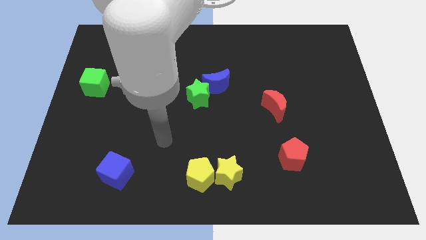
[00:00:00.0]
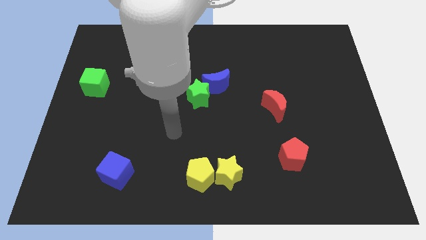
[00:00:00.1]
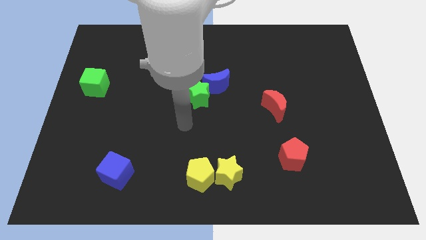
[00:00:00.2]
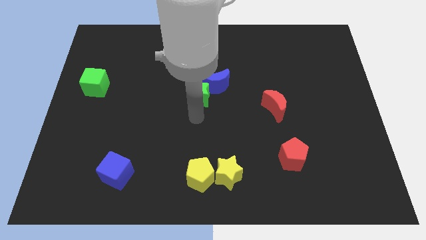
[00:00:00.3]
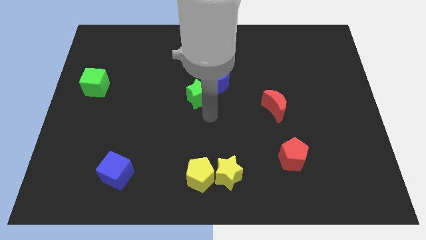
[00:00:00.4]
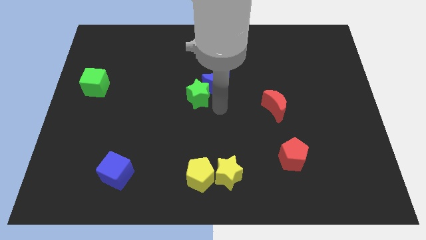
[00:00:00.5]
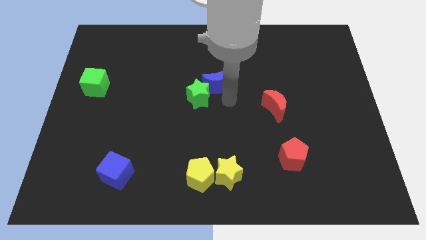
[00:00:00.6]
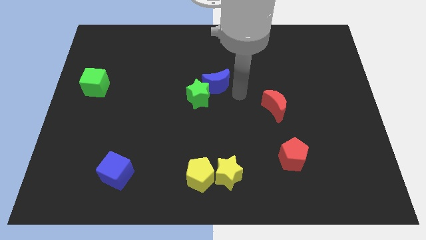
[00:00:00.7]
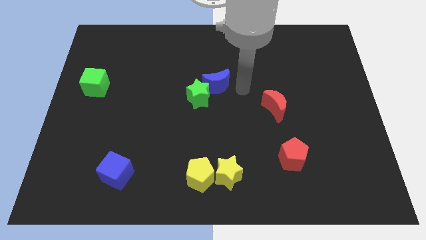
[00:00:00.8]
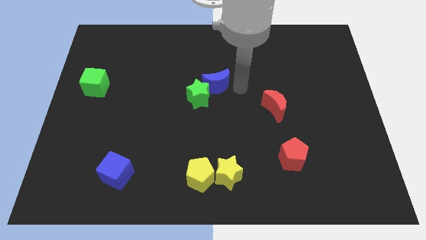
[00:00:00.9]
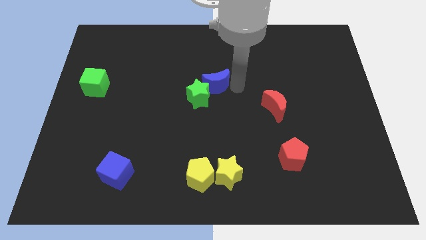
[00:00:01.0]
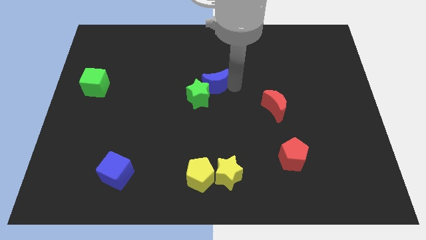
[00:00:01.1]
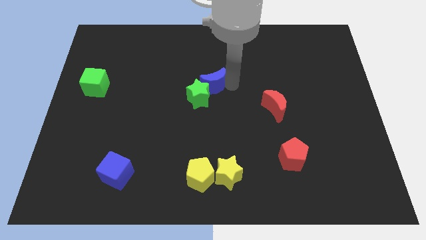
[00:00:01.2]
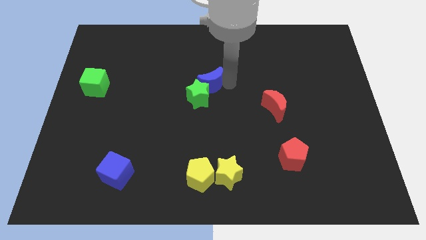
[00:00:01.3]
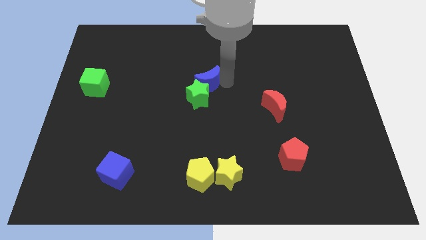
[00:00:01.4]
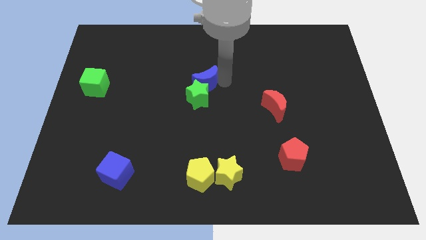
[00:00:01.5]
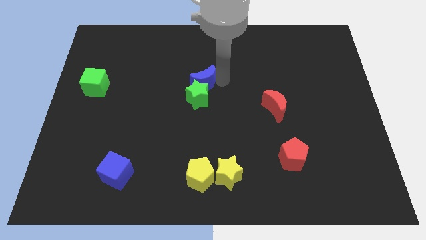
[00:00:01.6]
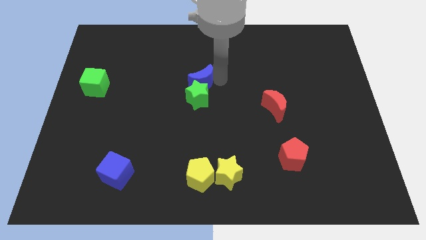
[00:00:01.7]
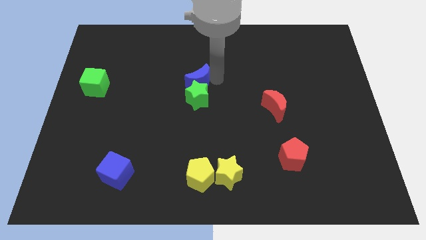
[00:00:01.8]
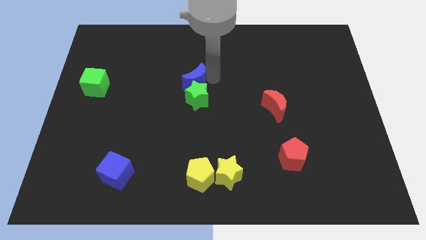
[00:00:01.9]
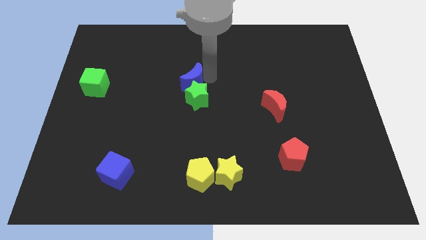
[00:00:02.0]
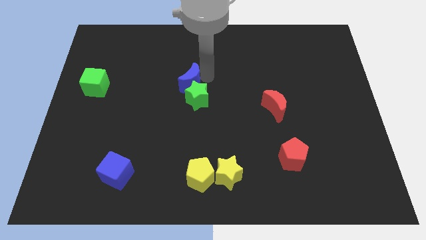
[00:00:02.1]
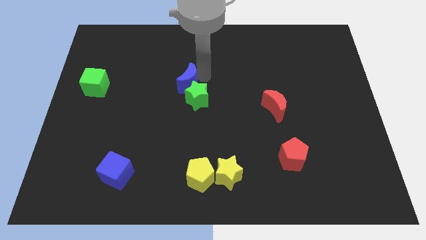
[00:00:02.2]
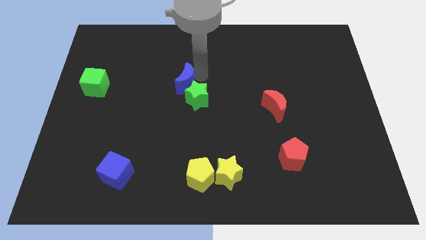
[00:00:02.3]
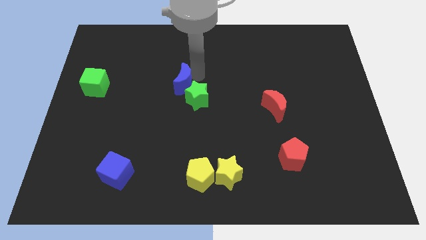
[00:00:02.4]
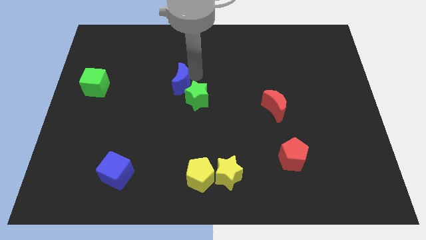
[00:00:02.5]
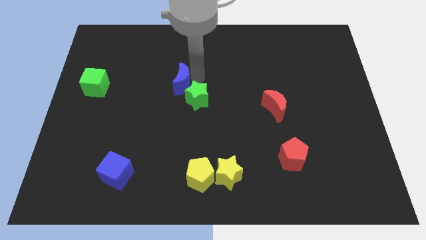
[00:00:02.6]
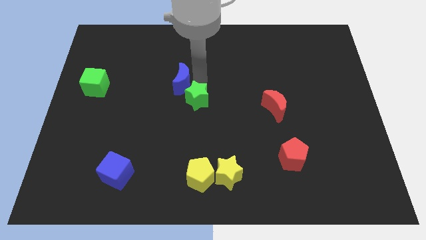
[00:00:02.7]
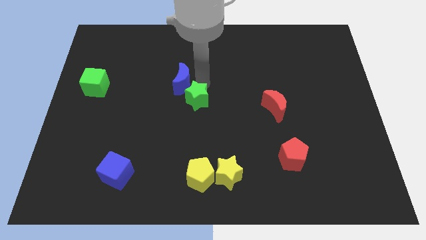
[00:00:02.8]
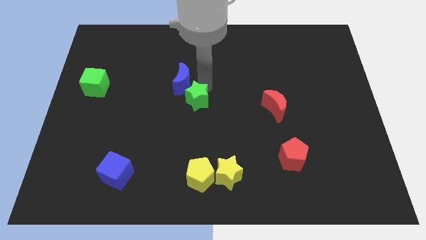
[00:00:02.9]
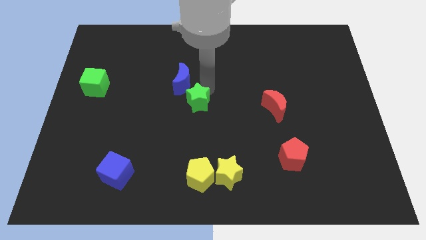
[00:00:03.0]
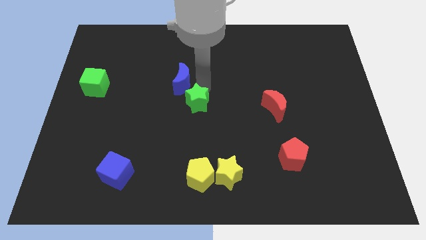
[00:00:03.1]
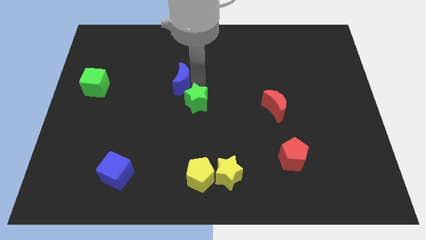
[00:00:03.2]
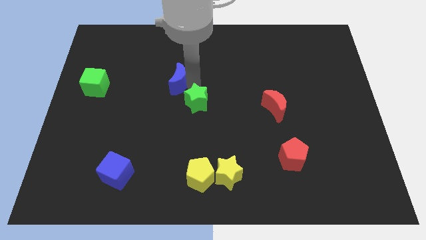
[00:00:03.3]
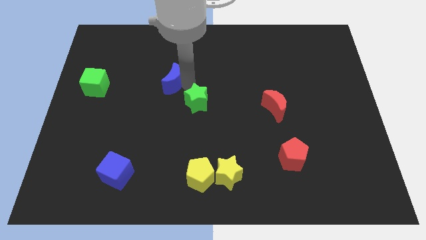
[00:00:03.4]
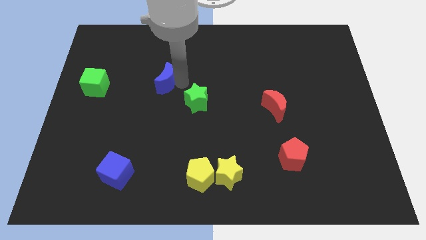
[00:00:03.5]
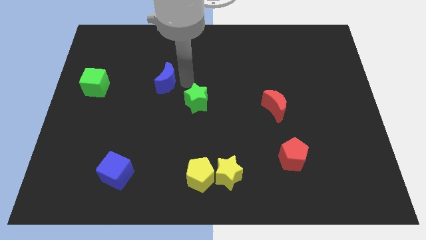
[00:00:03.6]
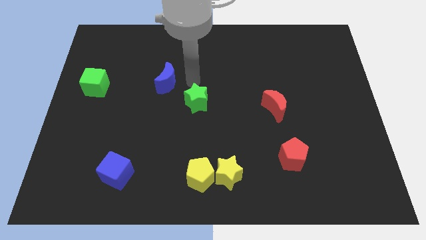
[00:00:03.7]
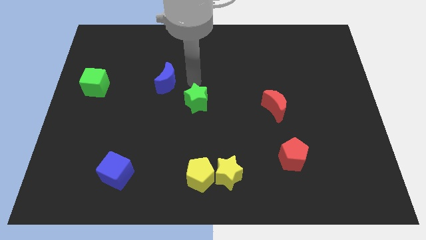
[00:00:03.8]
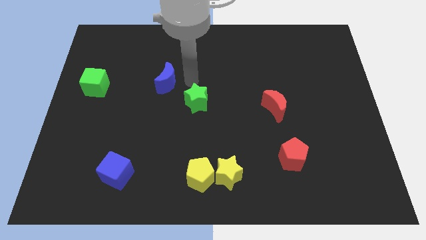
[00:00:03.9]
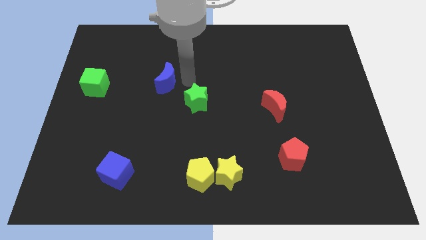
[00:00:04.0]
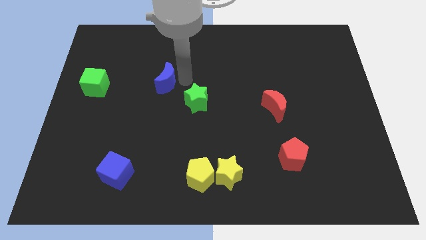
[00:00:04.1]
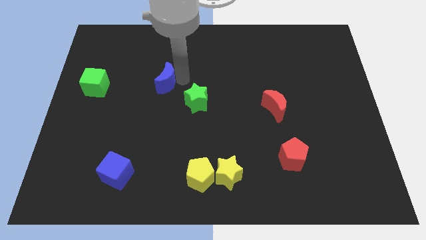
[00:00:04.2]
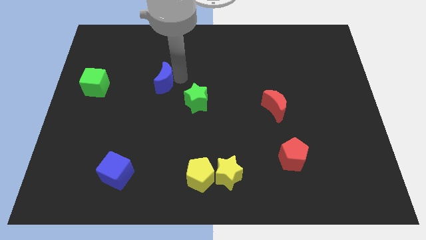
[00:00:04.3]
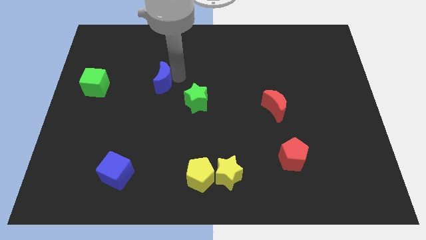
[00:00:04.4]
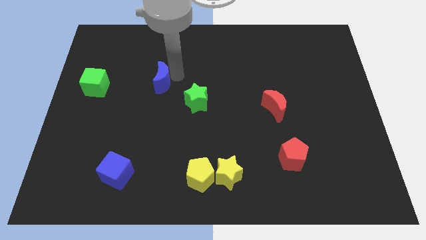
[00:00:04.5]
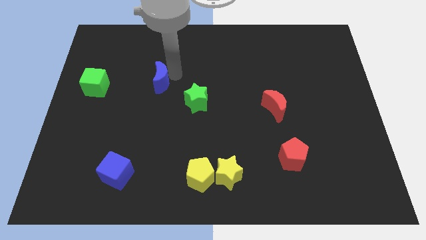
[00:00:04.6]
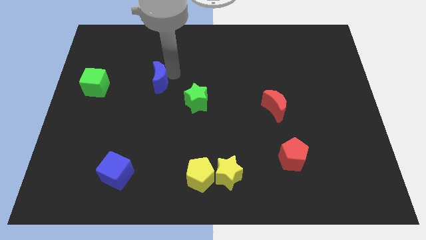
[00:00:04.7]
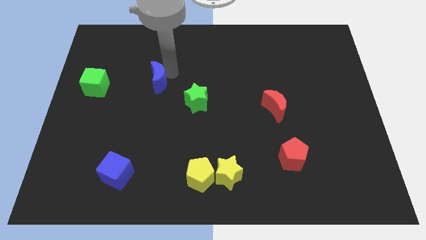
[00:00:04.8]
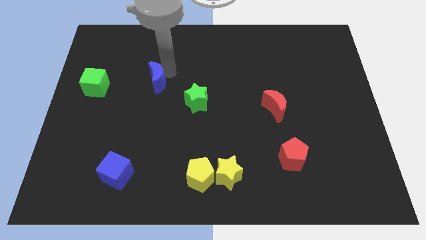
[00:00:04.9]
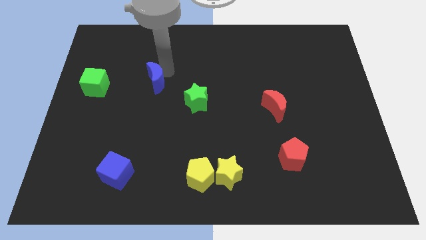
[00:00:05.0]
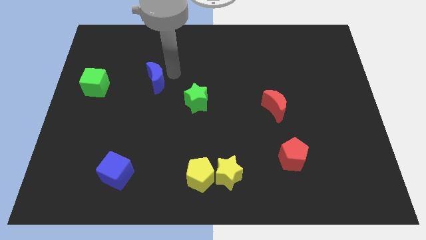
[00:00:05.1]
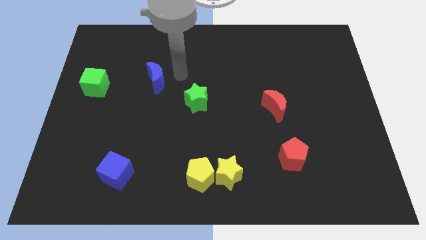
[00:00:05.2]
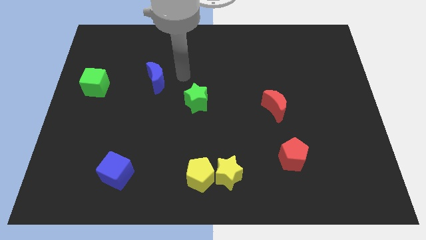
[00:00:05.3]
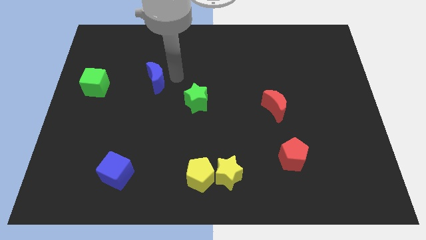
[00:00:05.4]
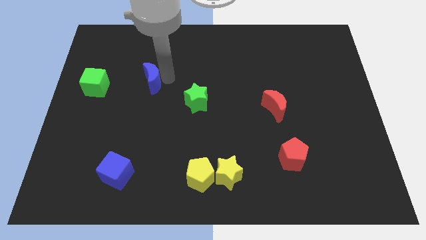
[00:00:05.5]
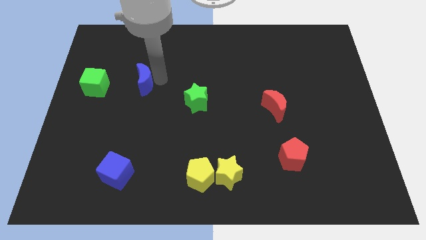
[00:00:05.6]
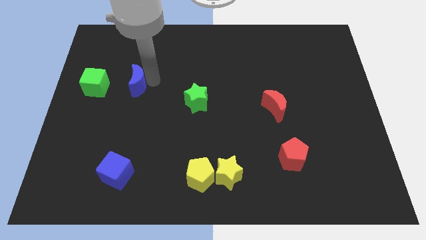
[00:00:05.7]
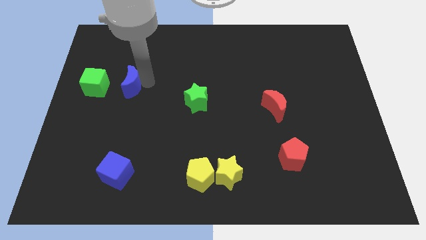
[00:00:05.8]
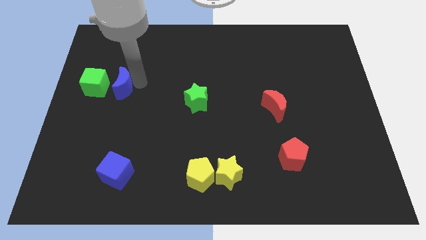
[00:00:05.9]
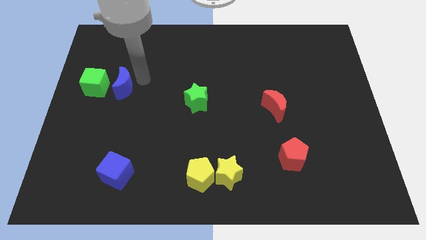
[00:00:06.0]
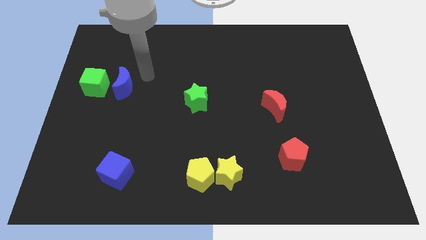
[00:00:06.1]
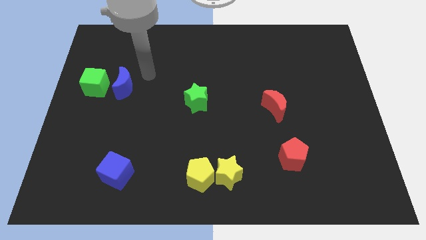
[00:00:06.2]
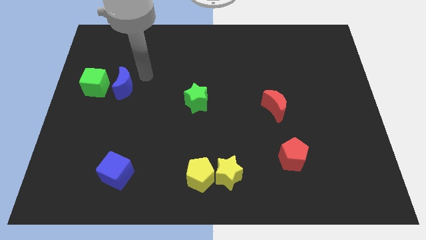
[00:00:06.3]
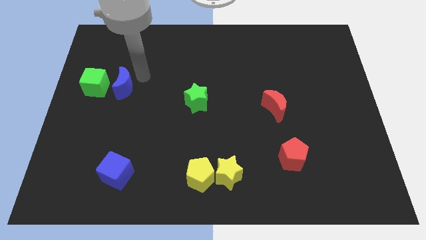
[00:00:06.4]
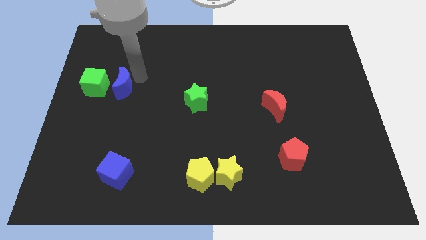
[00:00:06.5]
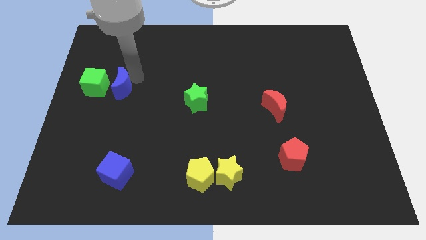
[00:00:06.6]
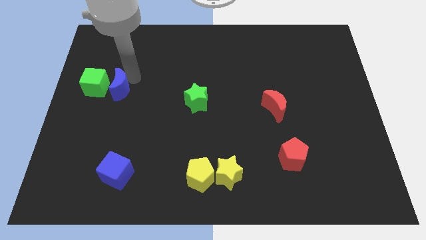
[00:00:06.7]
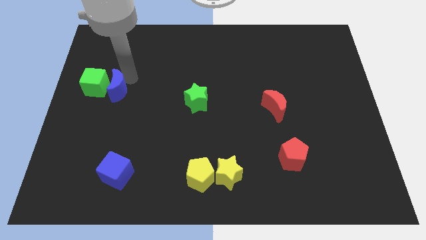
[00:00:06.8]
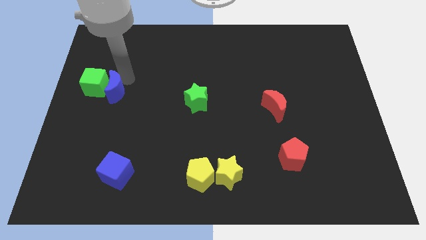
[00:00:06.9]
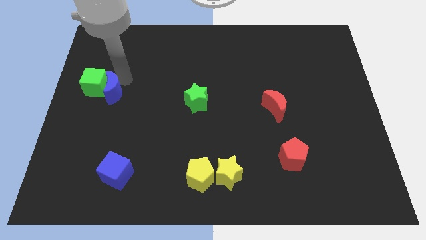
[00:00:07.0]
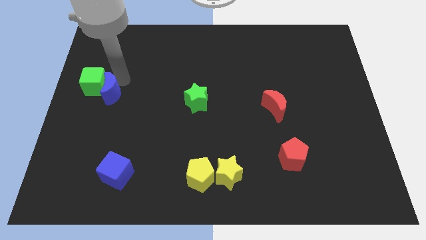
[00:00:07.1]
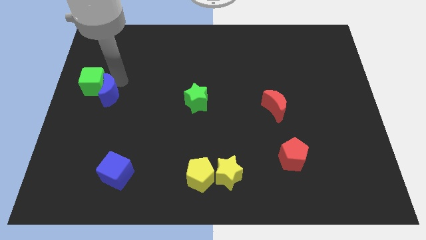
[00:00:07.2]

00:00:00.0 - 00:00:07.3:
put the blue moon to the center left
